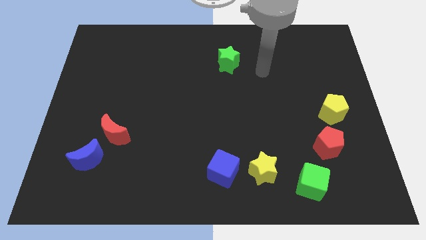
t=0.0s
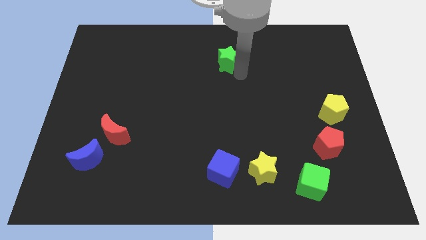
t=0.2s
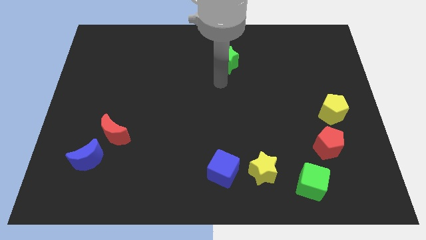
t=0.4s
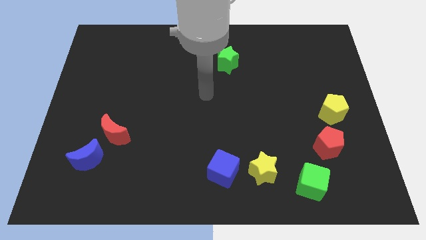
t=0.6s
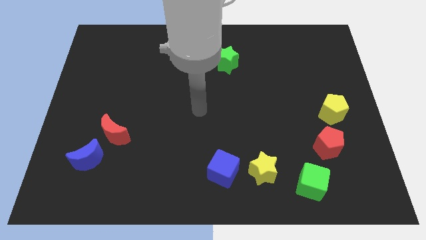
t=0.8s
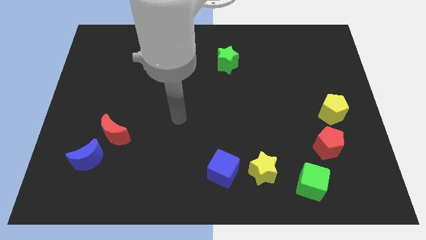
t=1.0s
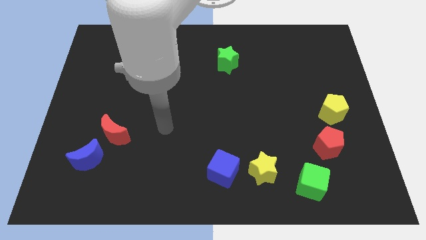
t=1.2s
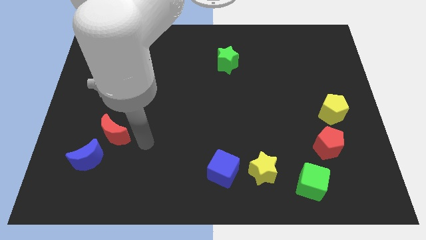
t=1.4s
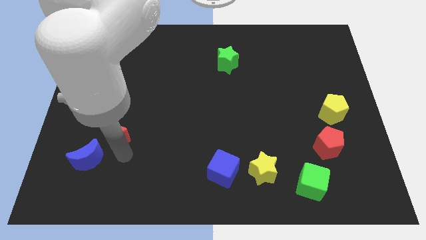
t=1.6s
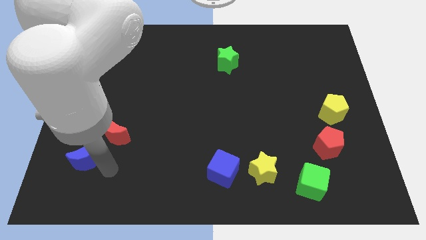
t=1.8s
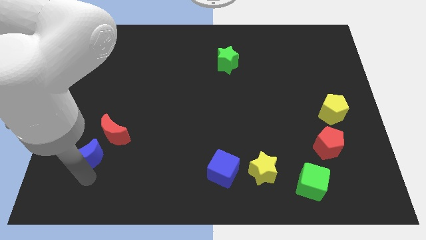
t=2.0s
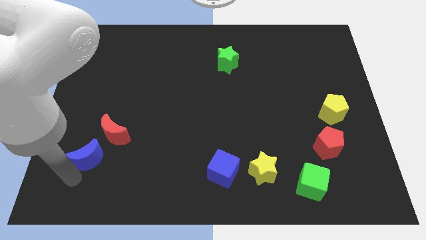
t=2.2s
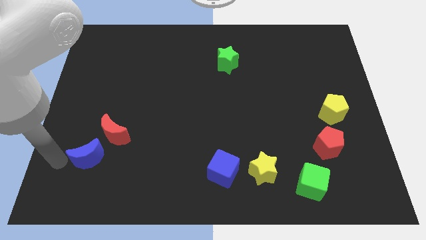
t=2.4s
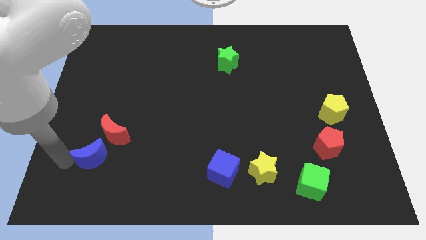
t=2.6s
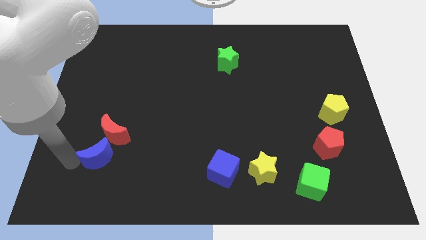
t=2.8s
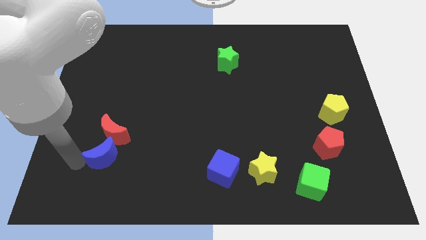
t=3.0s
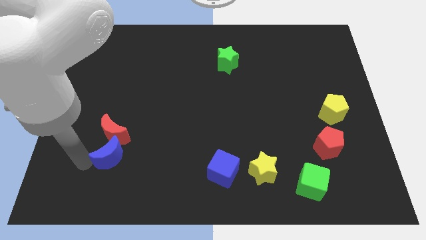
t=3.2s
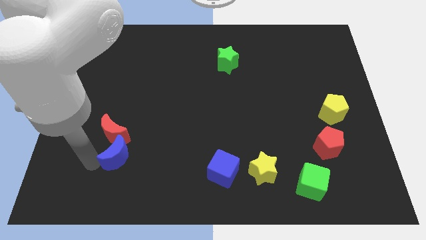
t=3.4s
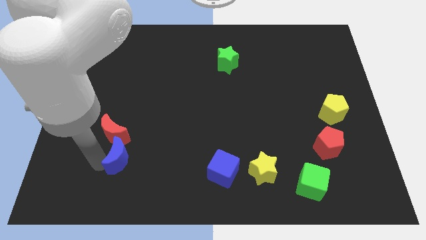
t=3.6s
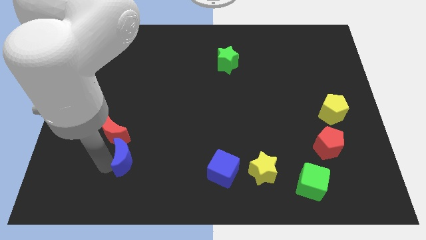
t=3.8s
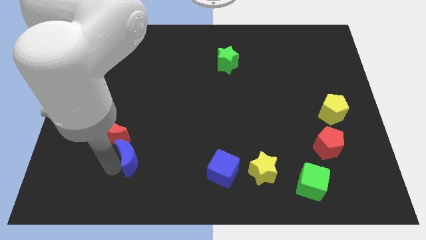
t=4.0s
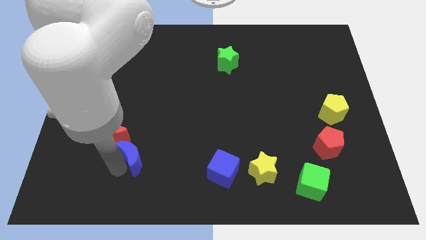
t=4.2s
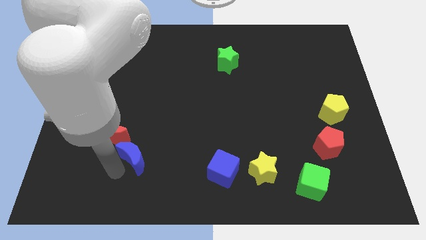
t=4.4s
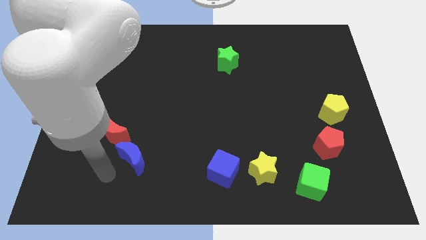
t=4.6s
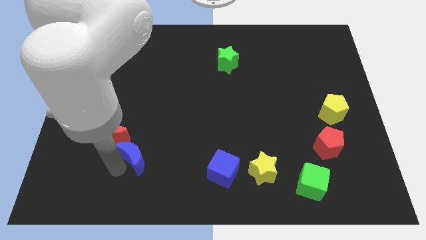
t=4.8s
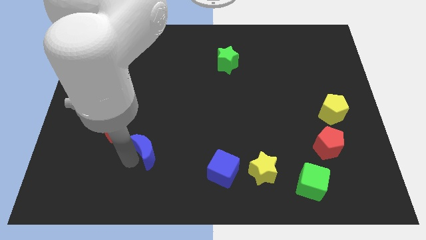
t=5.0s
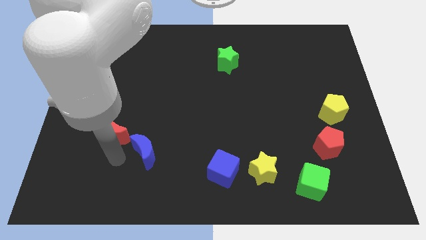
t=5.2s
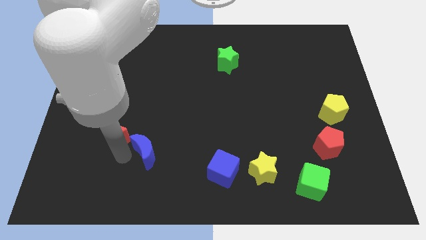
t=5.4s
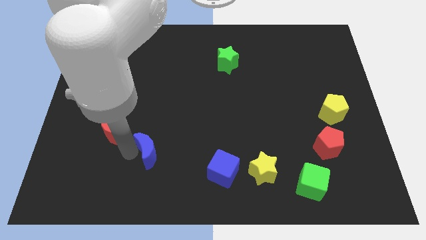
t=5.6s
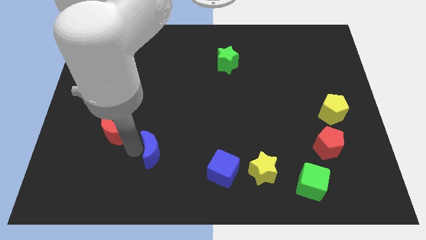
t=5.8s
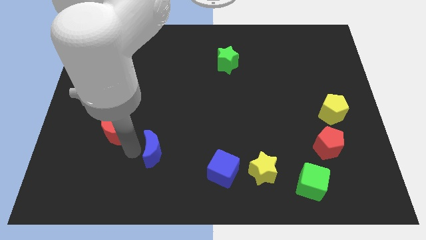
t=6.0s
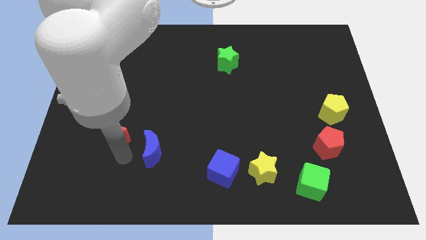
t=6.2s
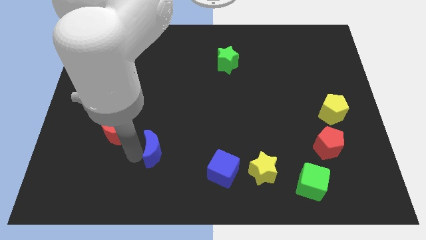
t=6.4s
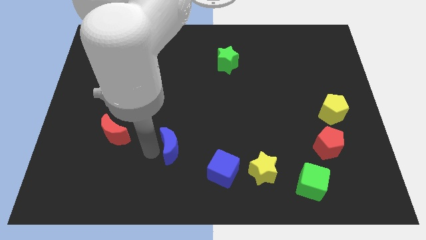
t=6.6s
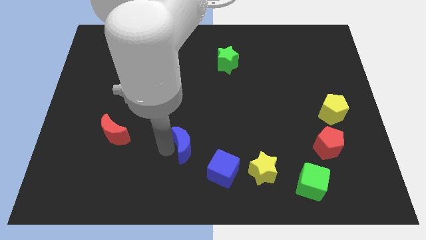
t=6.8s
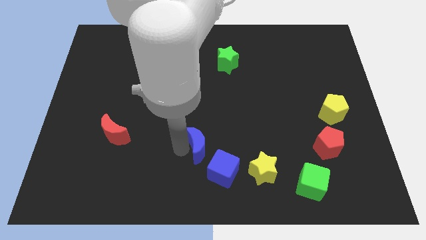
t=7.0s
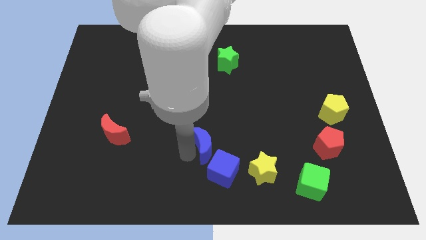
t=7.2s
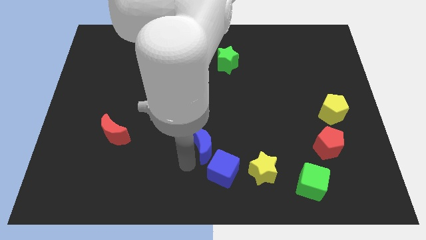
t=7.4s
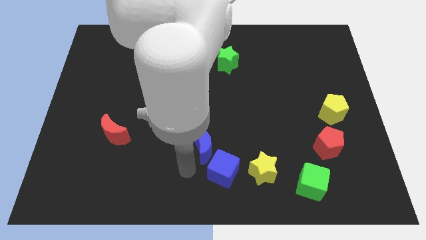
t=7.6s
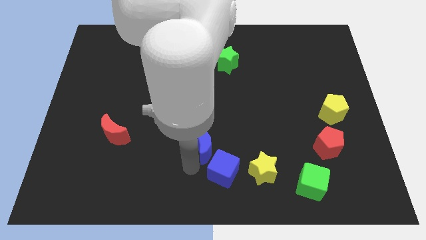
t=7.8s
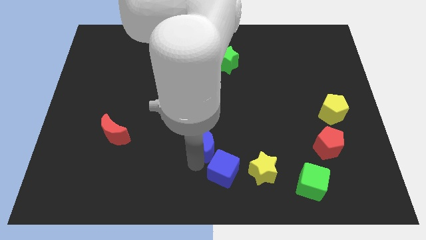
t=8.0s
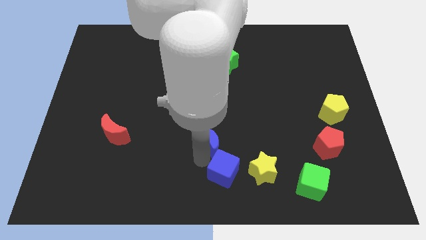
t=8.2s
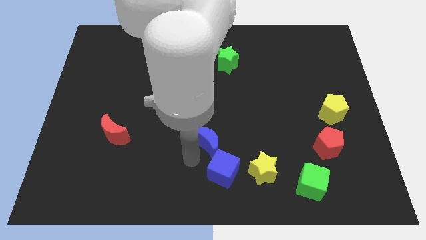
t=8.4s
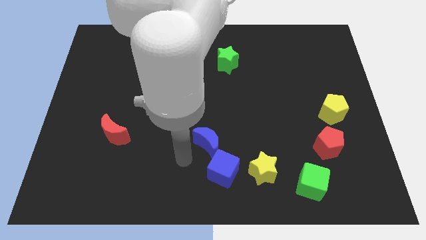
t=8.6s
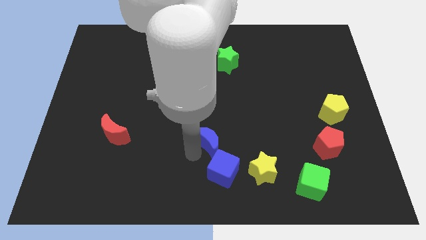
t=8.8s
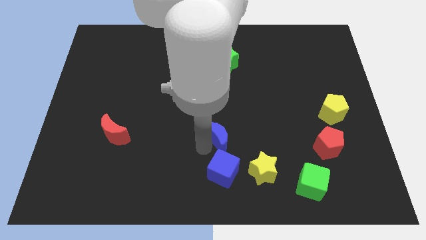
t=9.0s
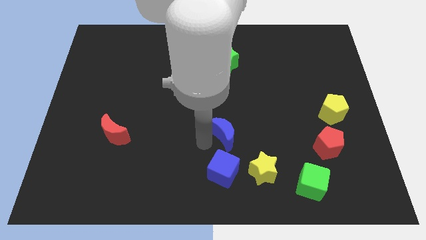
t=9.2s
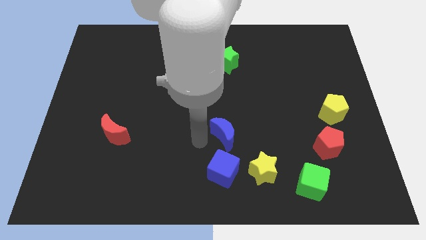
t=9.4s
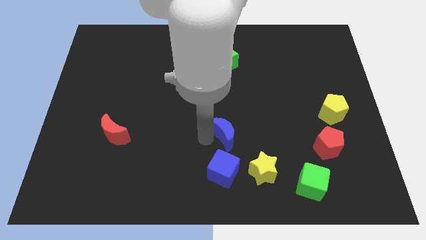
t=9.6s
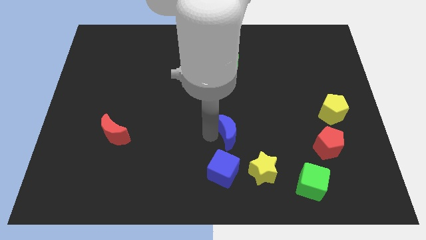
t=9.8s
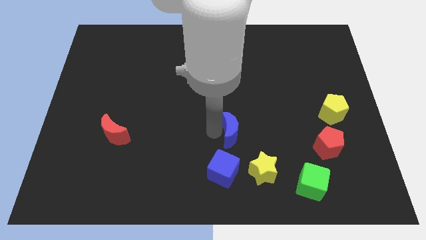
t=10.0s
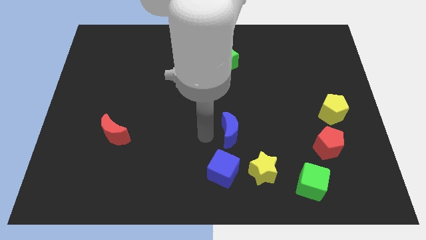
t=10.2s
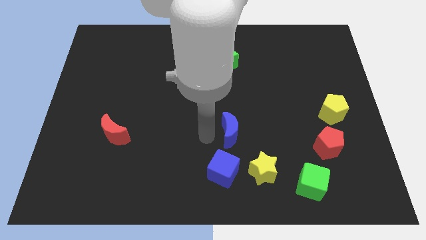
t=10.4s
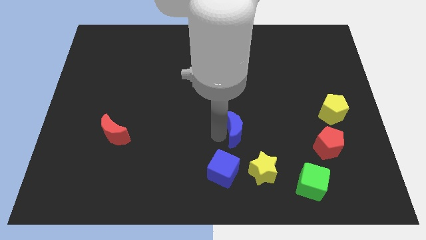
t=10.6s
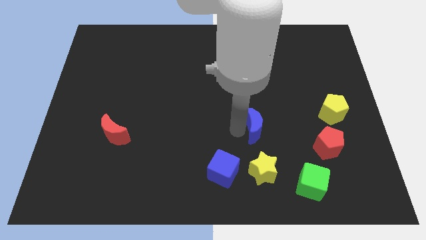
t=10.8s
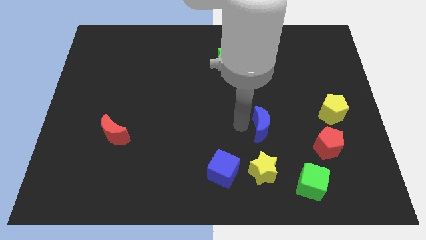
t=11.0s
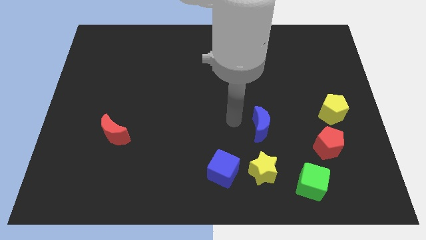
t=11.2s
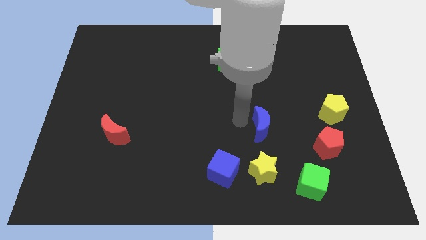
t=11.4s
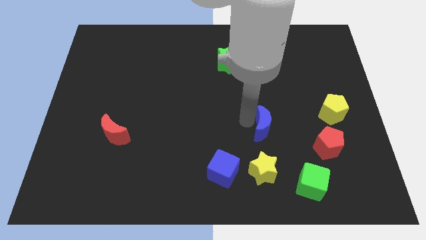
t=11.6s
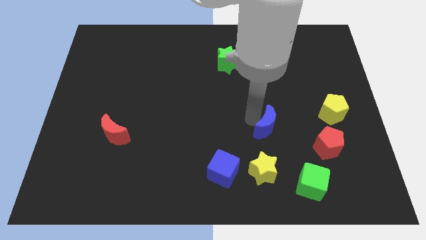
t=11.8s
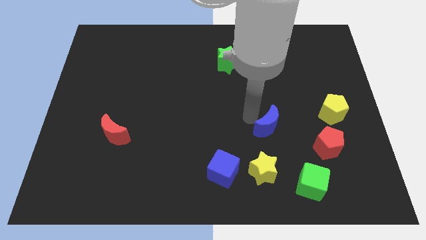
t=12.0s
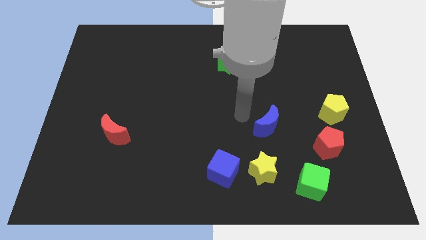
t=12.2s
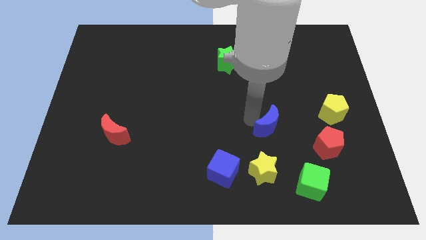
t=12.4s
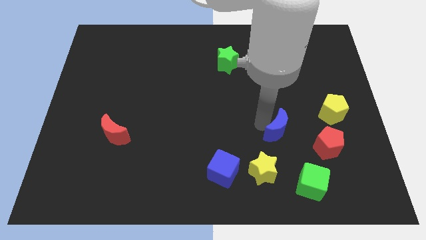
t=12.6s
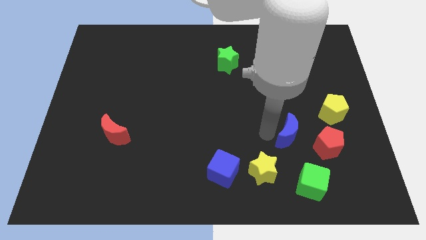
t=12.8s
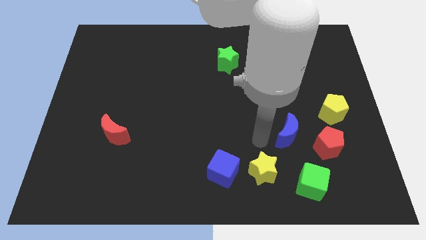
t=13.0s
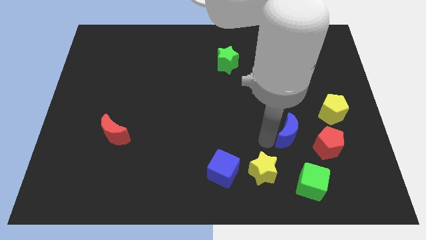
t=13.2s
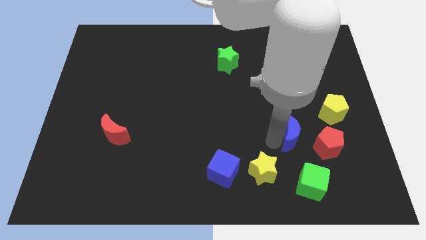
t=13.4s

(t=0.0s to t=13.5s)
slide the blue moon to the bottom left side of the yellow pentagon

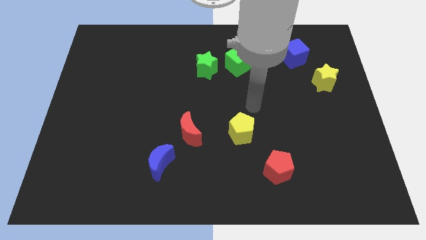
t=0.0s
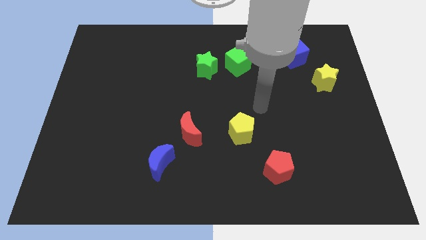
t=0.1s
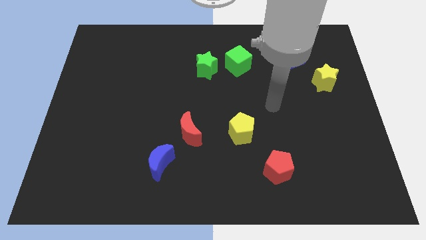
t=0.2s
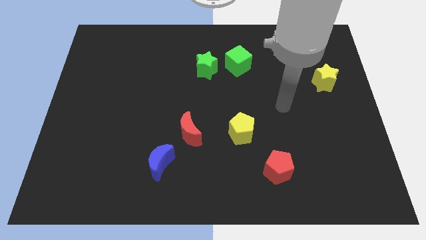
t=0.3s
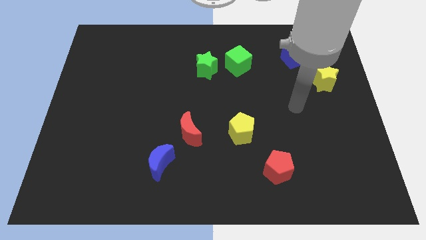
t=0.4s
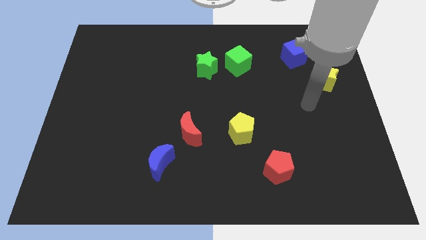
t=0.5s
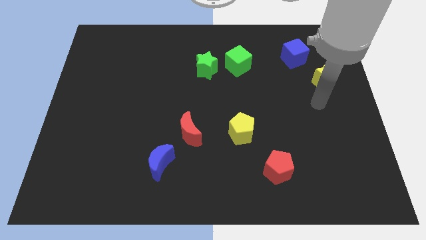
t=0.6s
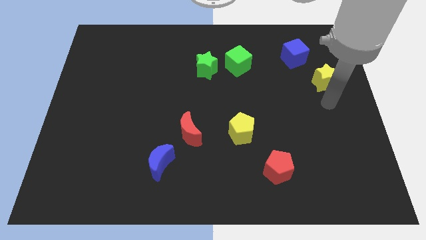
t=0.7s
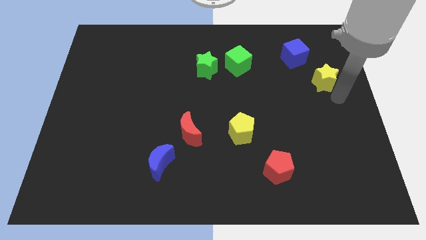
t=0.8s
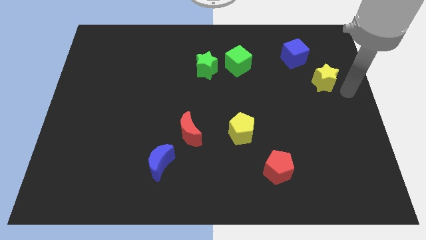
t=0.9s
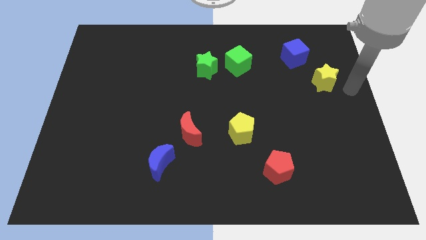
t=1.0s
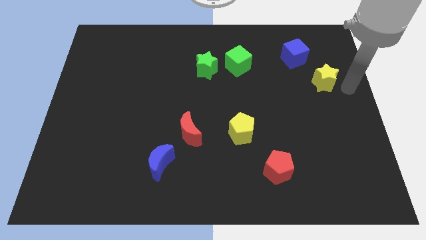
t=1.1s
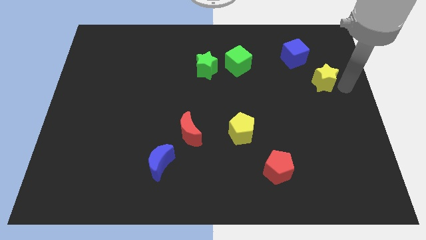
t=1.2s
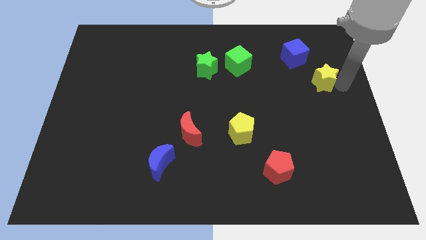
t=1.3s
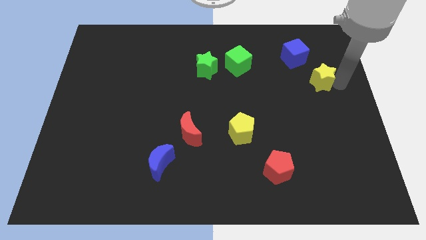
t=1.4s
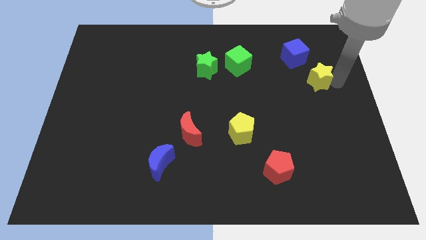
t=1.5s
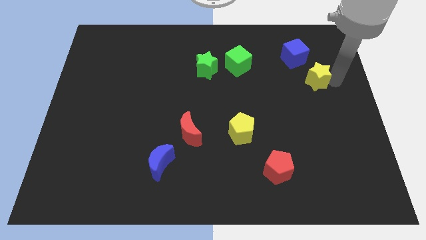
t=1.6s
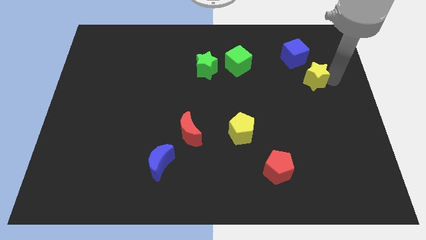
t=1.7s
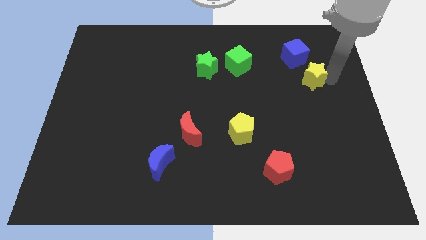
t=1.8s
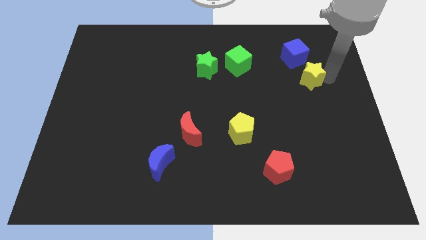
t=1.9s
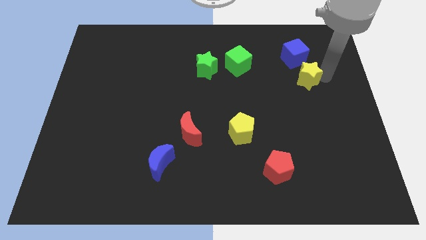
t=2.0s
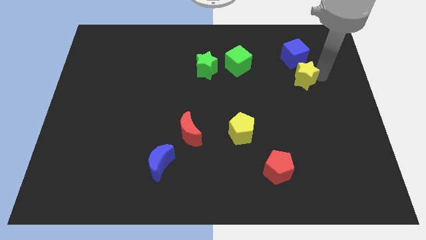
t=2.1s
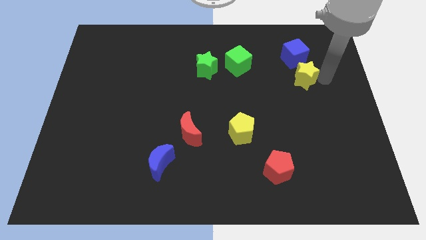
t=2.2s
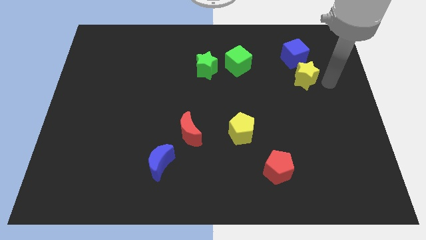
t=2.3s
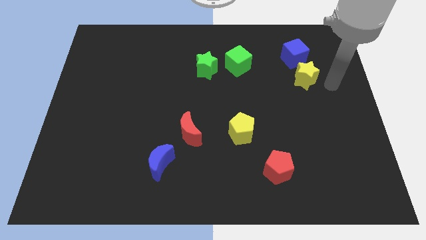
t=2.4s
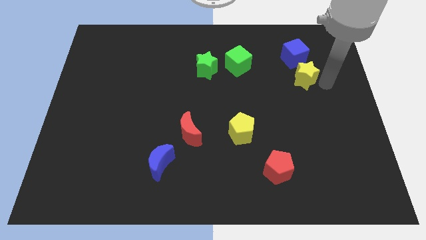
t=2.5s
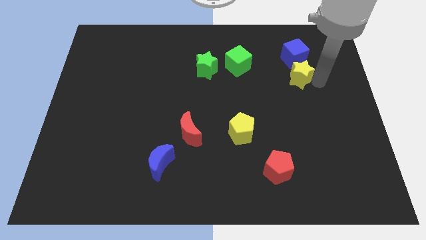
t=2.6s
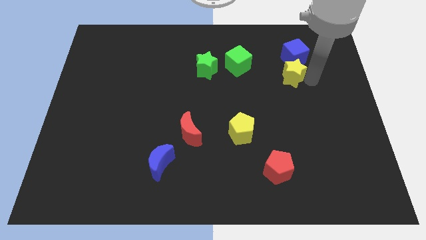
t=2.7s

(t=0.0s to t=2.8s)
put the yellow star to the bottom left side of the blue cube
